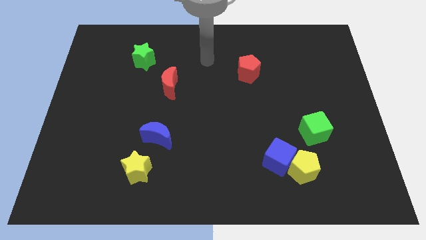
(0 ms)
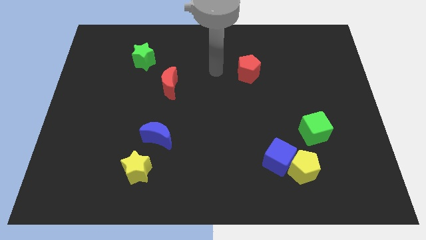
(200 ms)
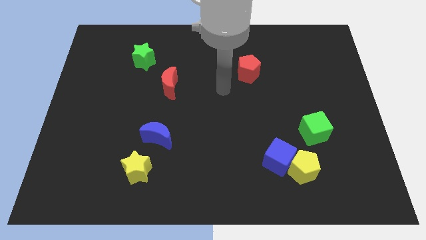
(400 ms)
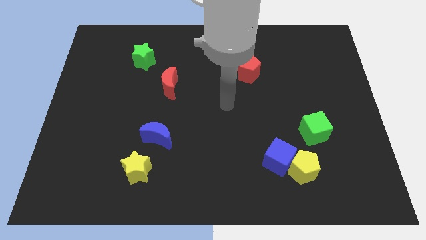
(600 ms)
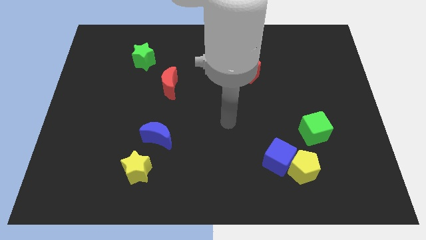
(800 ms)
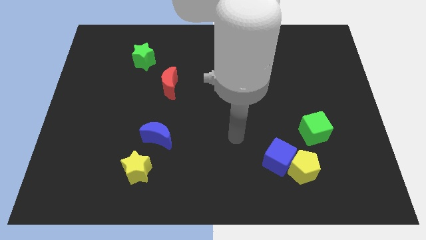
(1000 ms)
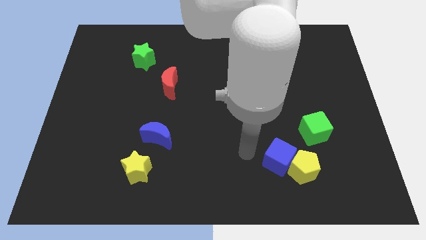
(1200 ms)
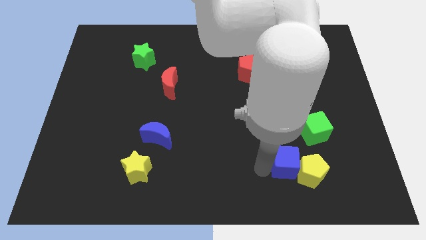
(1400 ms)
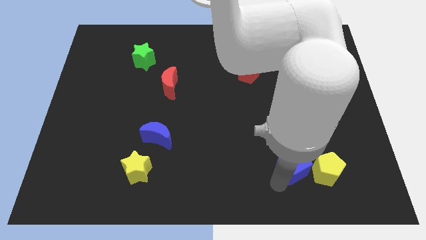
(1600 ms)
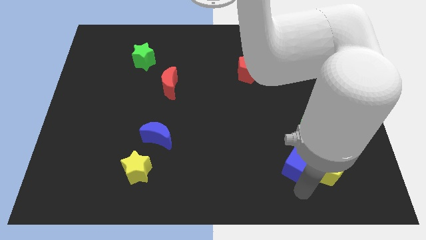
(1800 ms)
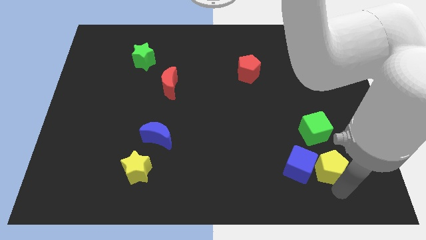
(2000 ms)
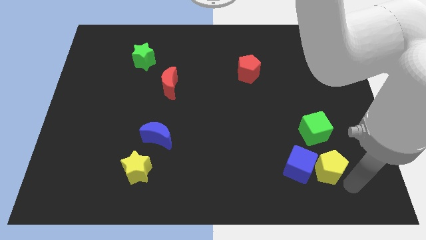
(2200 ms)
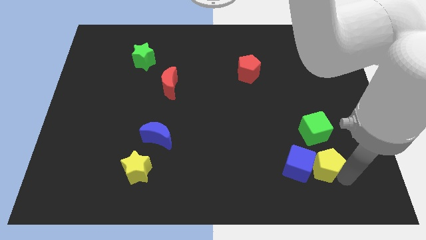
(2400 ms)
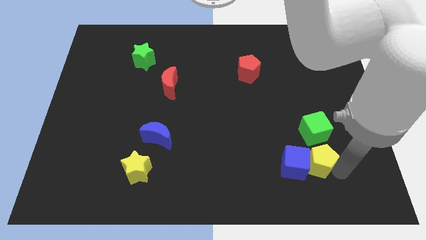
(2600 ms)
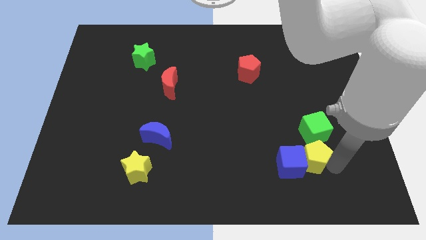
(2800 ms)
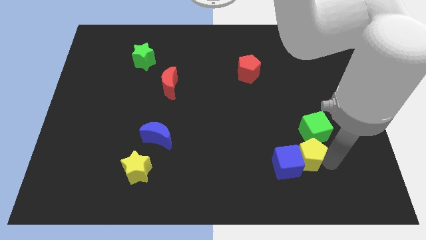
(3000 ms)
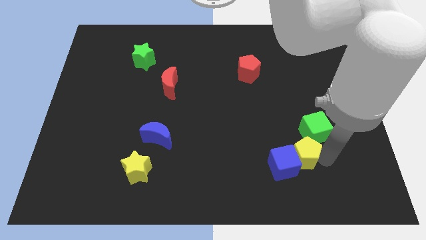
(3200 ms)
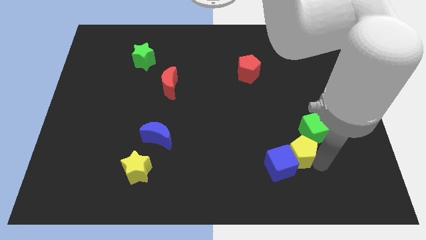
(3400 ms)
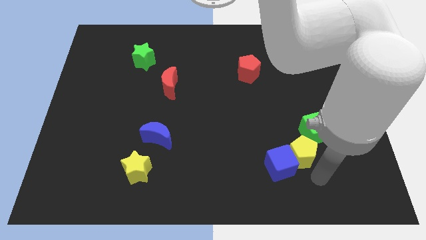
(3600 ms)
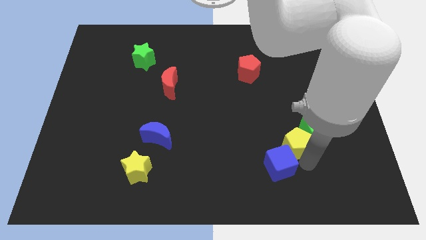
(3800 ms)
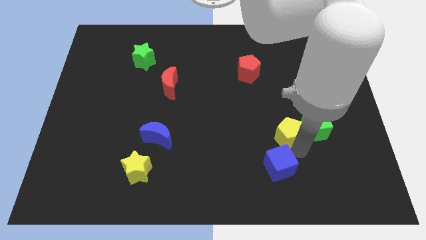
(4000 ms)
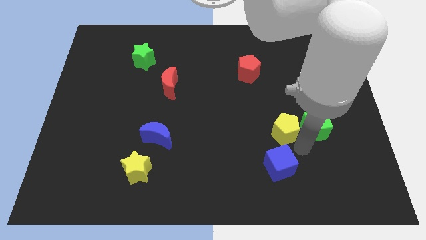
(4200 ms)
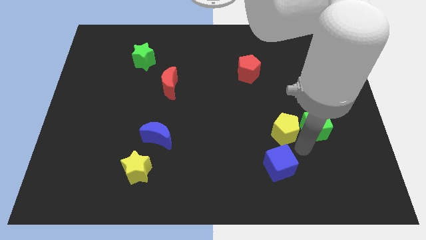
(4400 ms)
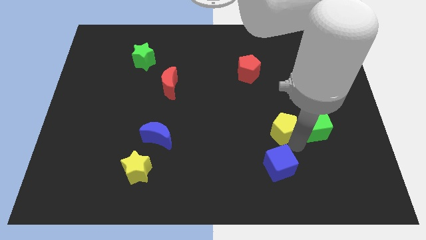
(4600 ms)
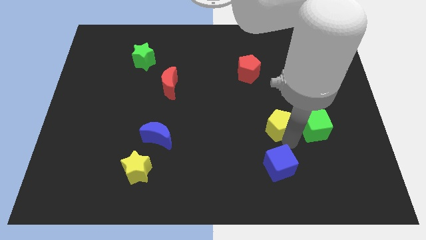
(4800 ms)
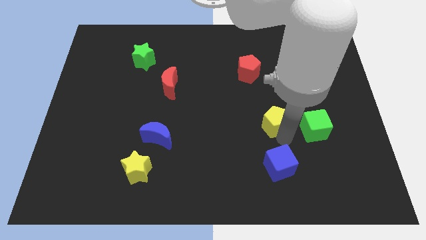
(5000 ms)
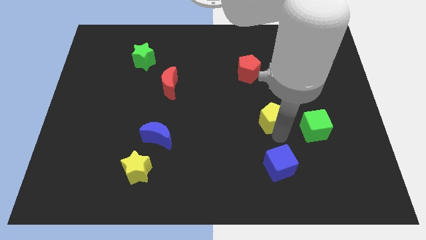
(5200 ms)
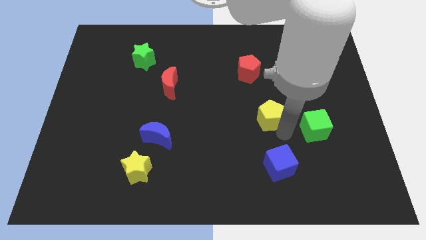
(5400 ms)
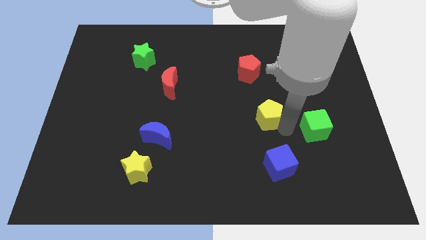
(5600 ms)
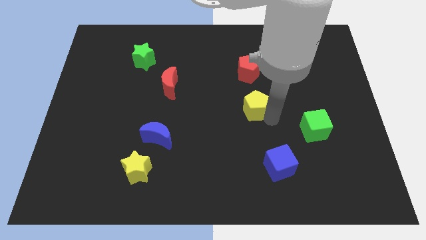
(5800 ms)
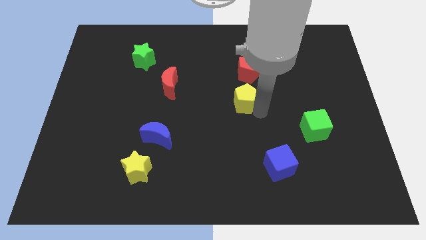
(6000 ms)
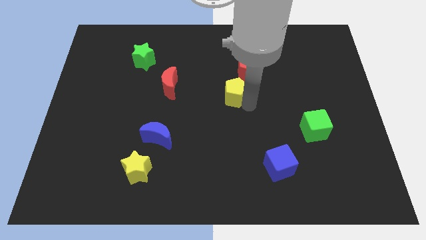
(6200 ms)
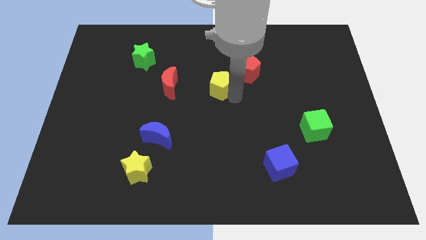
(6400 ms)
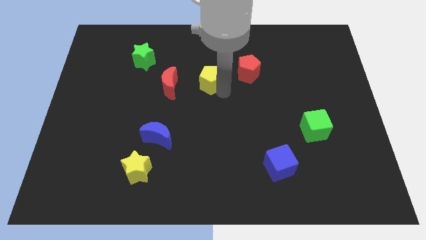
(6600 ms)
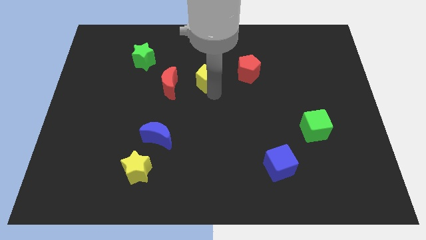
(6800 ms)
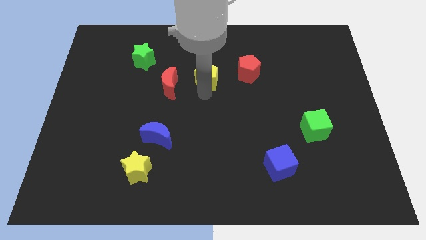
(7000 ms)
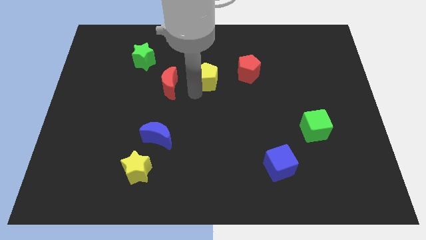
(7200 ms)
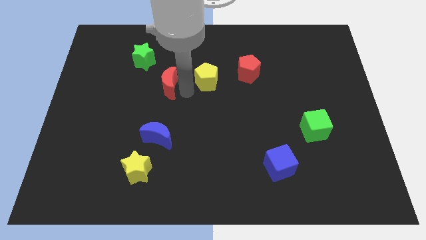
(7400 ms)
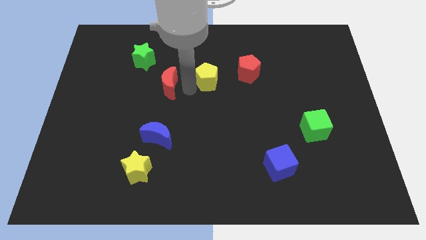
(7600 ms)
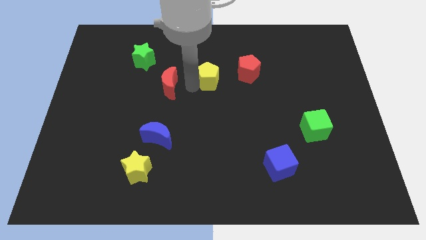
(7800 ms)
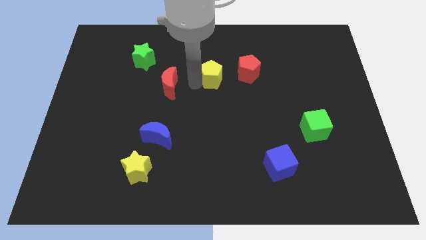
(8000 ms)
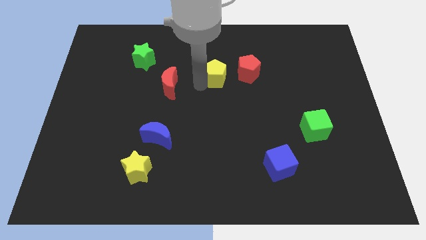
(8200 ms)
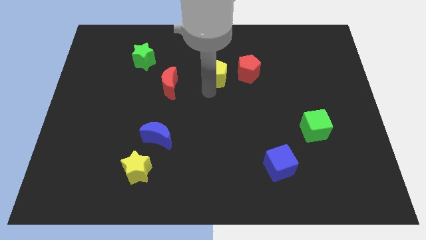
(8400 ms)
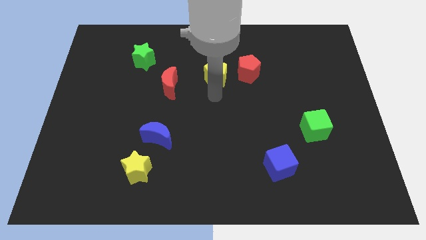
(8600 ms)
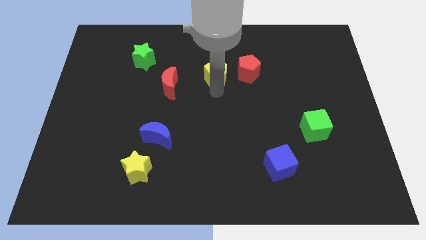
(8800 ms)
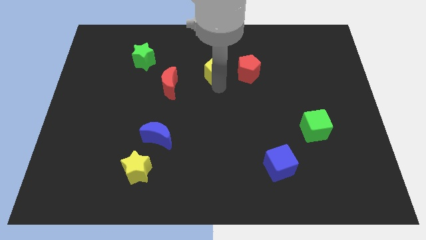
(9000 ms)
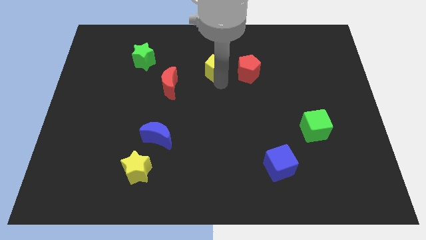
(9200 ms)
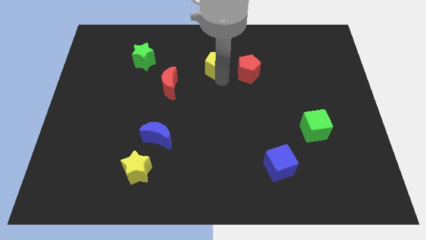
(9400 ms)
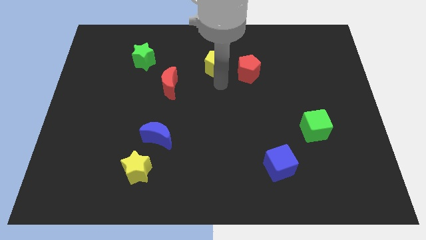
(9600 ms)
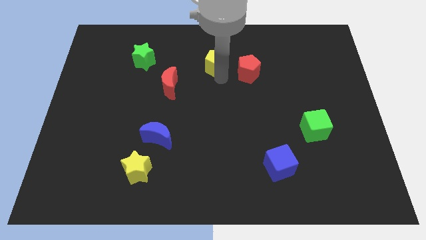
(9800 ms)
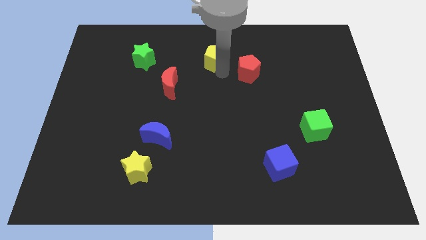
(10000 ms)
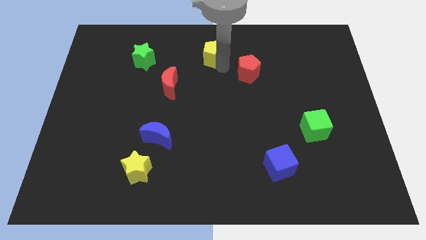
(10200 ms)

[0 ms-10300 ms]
slide the yellow pentagon to the towards your base

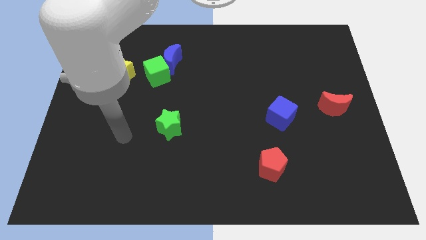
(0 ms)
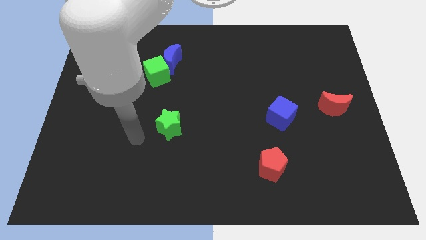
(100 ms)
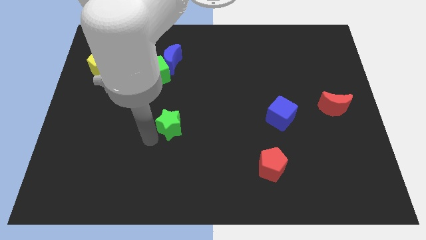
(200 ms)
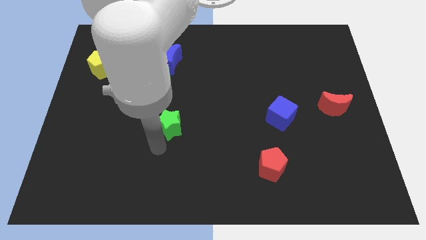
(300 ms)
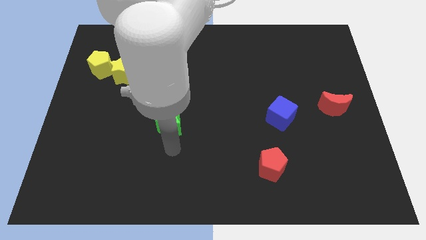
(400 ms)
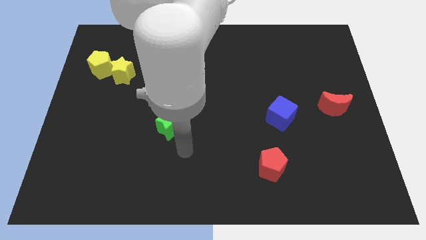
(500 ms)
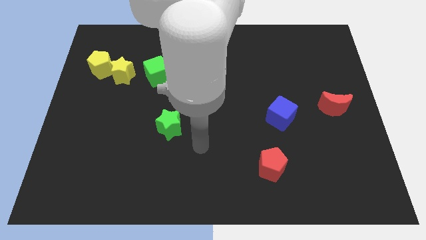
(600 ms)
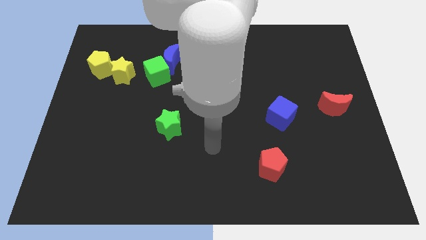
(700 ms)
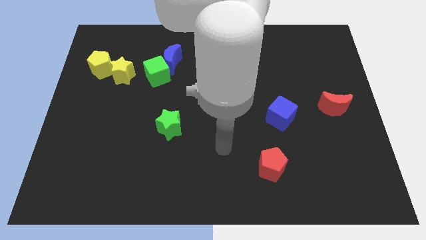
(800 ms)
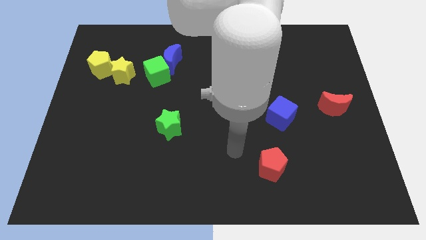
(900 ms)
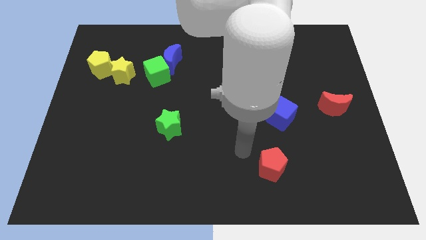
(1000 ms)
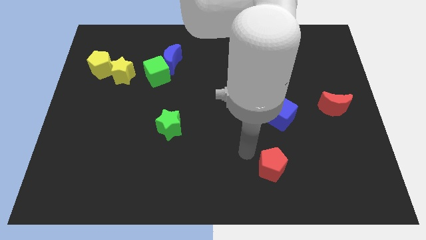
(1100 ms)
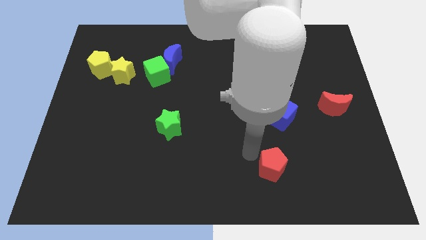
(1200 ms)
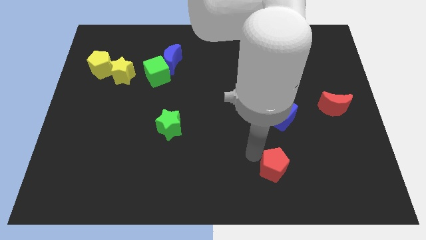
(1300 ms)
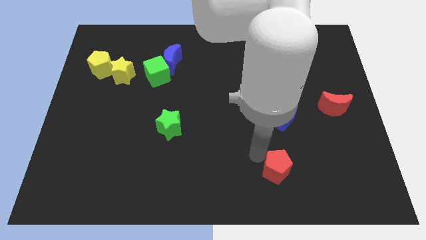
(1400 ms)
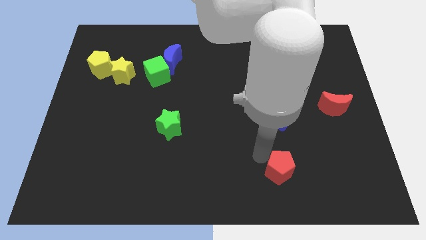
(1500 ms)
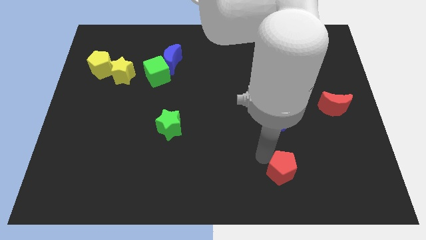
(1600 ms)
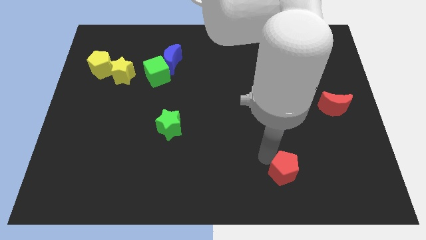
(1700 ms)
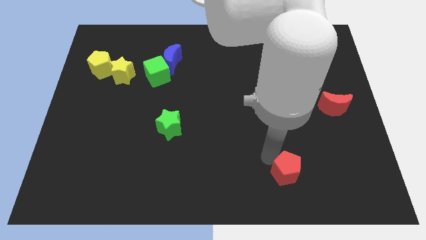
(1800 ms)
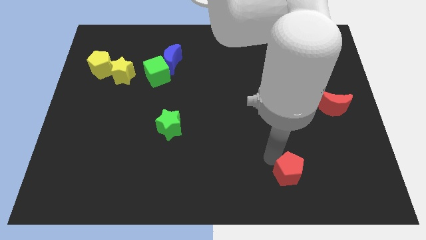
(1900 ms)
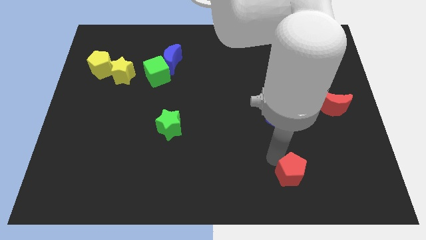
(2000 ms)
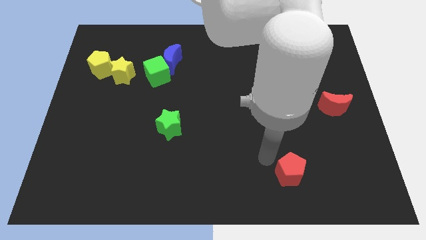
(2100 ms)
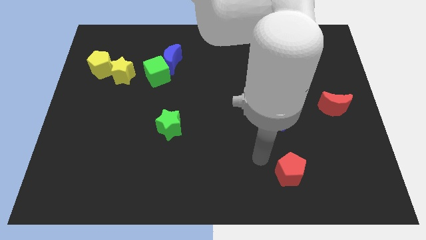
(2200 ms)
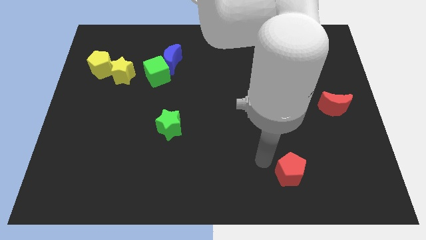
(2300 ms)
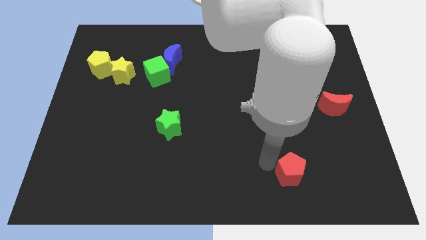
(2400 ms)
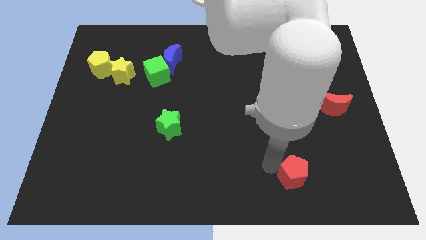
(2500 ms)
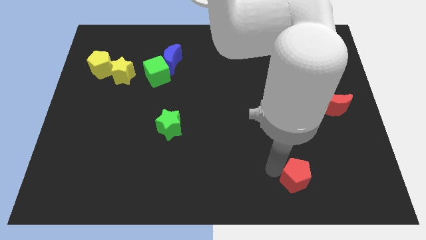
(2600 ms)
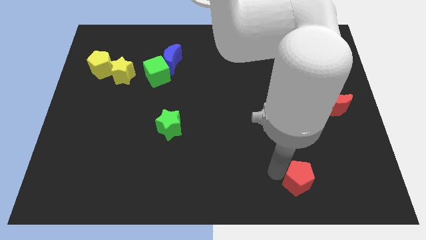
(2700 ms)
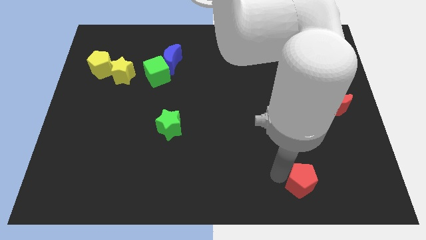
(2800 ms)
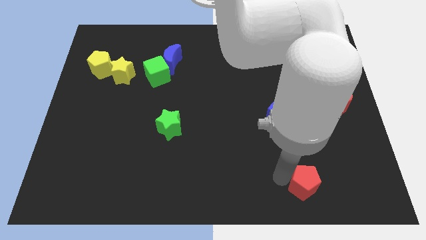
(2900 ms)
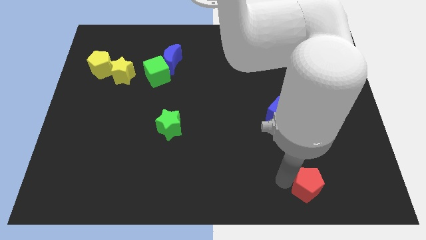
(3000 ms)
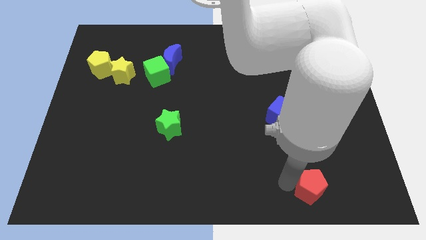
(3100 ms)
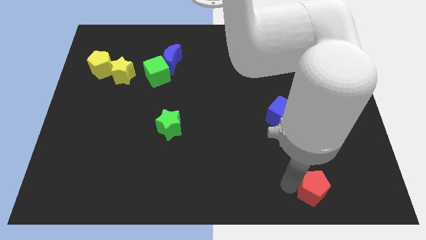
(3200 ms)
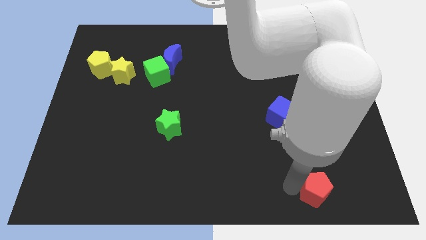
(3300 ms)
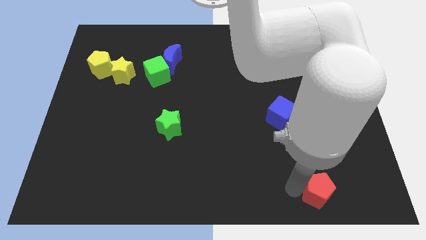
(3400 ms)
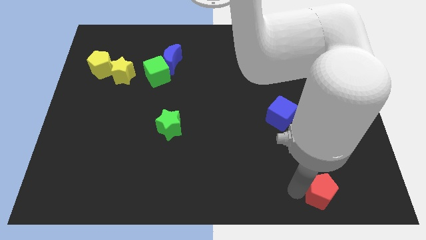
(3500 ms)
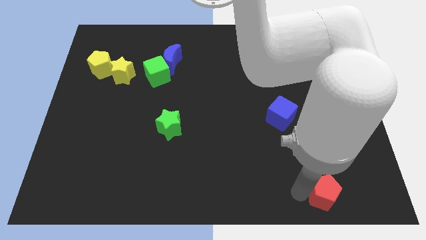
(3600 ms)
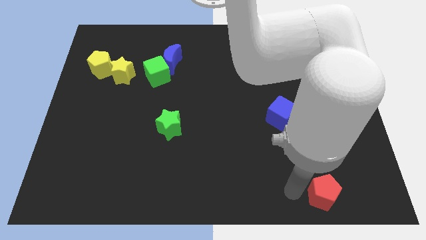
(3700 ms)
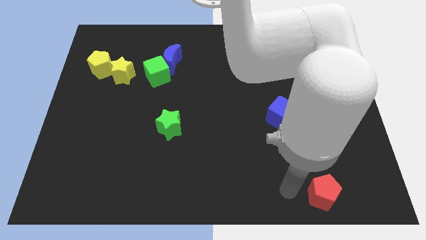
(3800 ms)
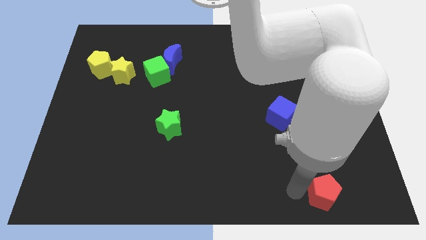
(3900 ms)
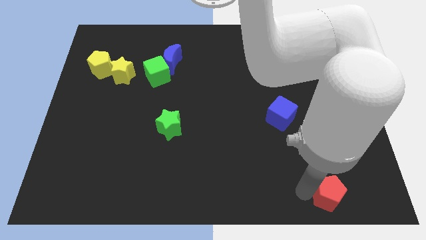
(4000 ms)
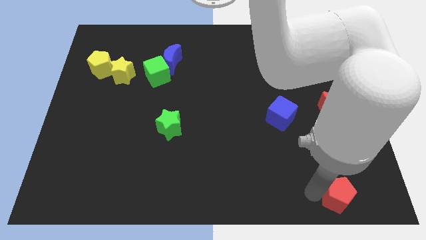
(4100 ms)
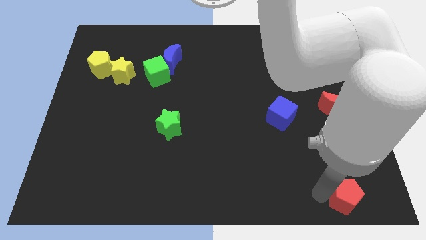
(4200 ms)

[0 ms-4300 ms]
move the red pentagon to the bottom right of the board
